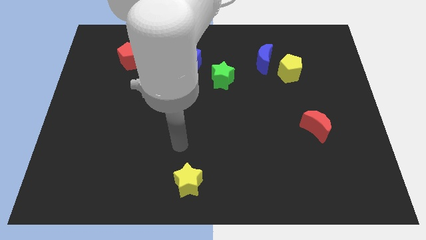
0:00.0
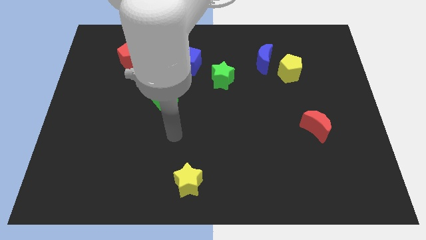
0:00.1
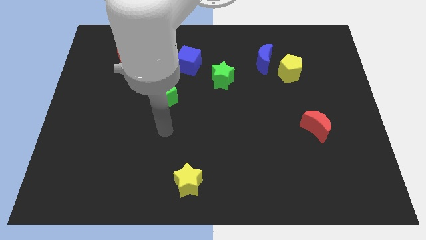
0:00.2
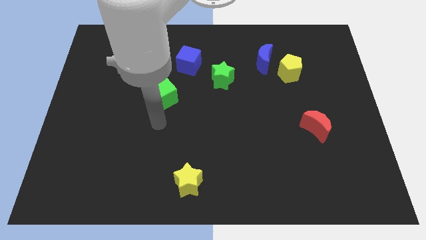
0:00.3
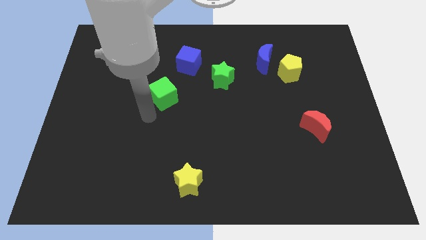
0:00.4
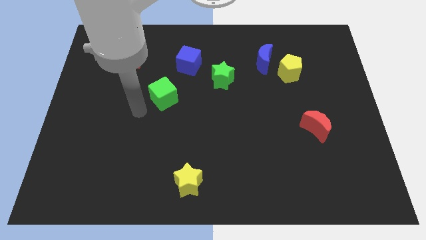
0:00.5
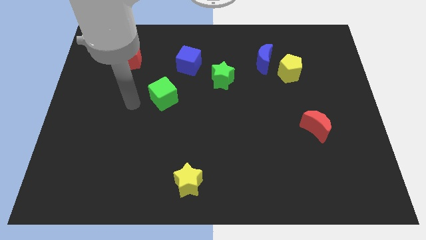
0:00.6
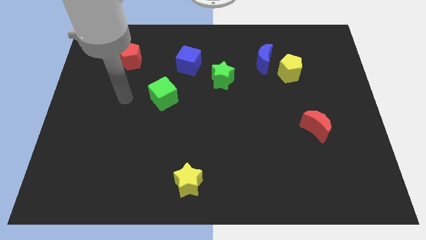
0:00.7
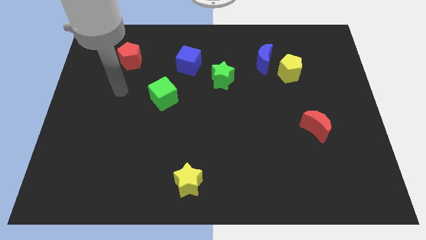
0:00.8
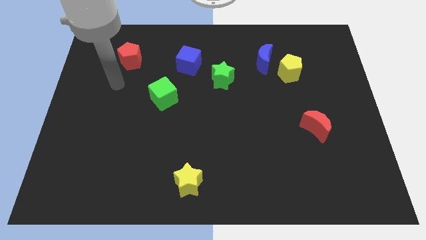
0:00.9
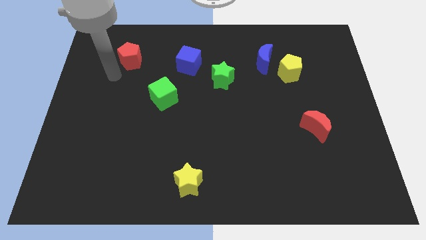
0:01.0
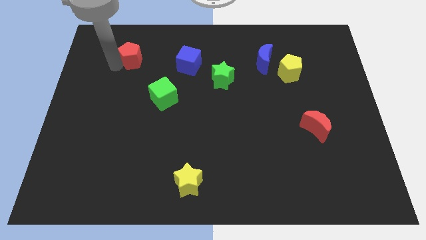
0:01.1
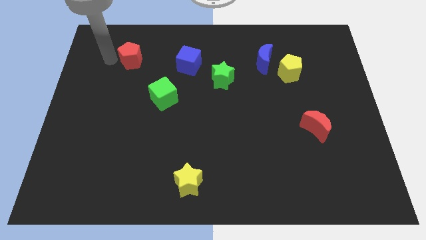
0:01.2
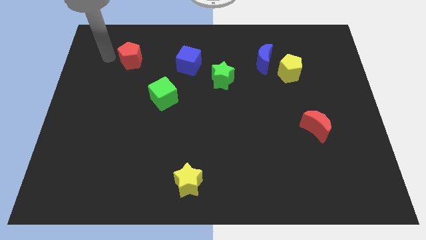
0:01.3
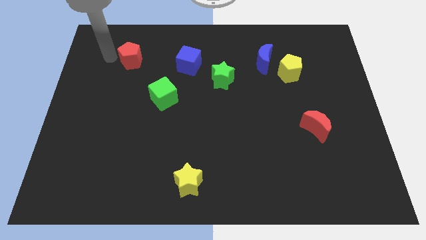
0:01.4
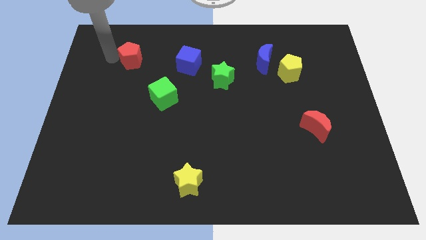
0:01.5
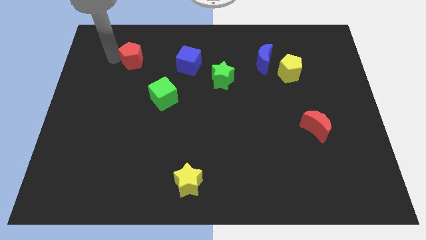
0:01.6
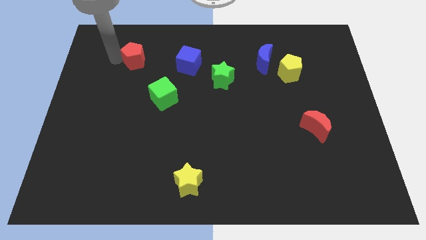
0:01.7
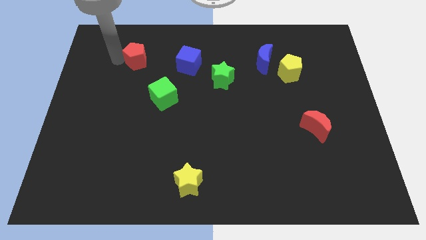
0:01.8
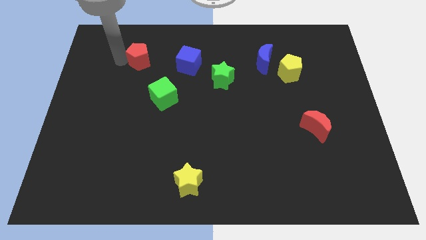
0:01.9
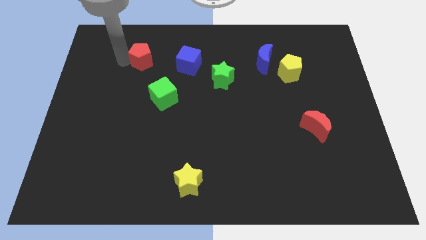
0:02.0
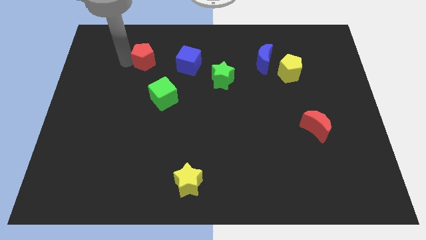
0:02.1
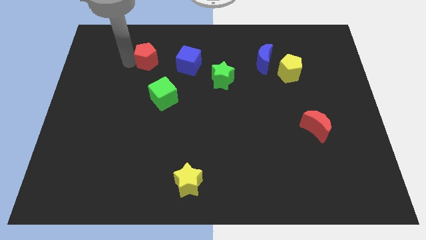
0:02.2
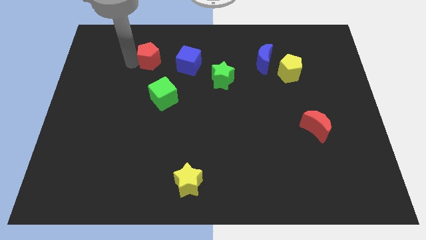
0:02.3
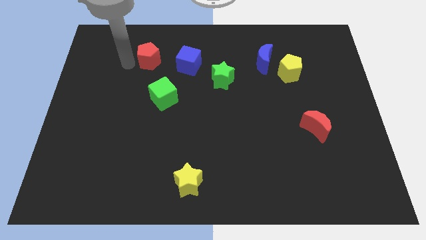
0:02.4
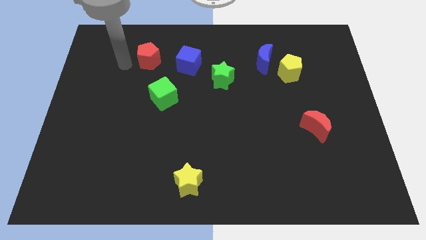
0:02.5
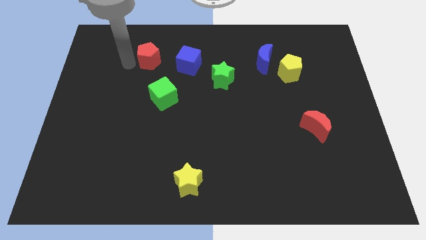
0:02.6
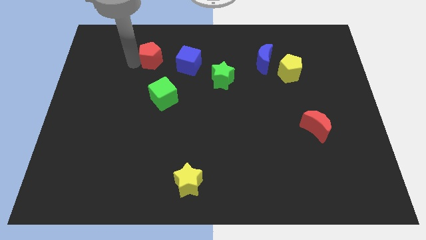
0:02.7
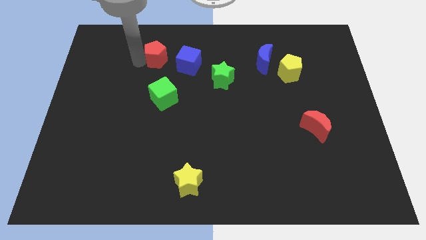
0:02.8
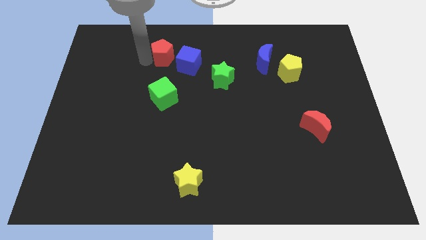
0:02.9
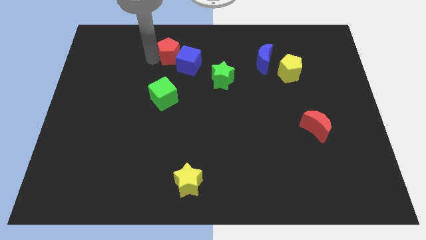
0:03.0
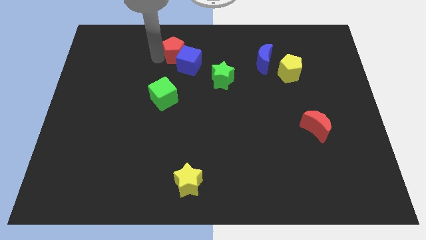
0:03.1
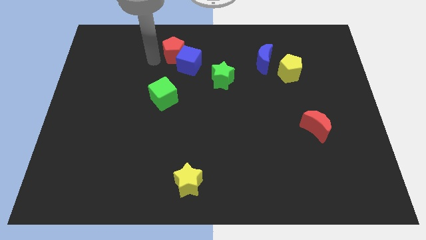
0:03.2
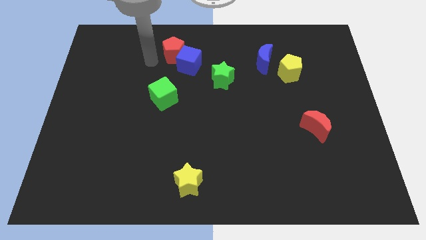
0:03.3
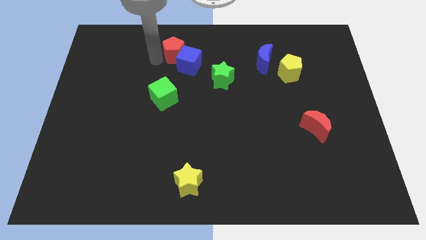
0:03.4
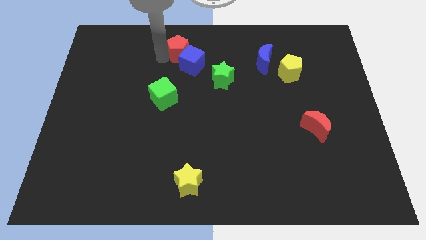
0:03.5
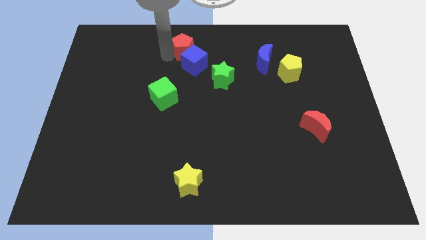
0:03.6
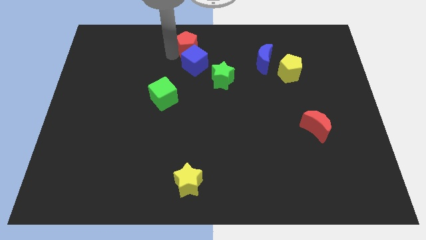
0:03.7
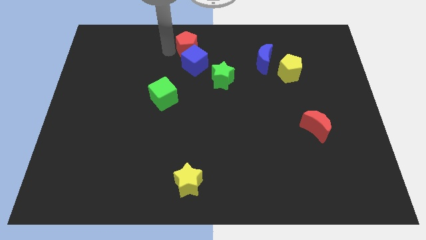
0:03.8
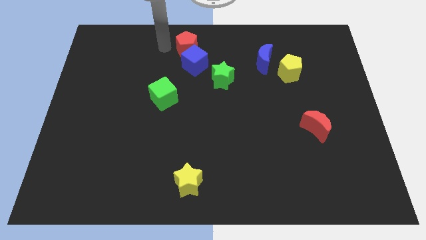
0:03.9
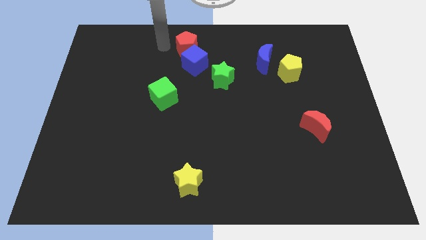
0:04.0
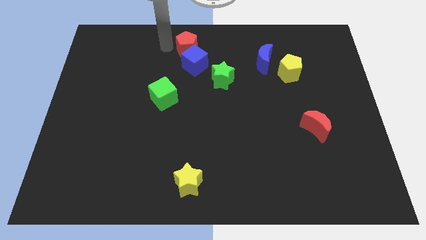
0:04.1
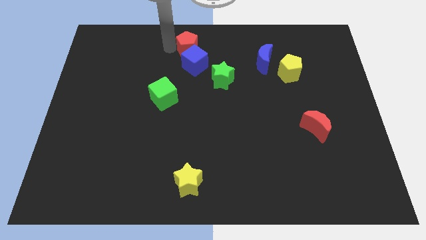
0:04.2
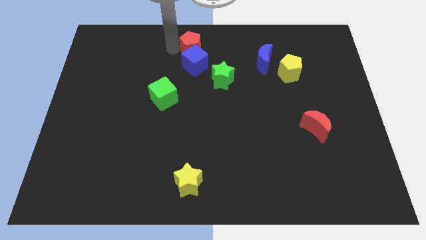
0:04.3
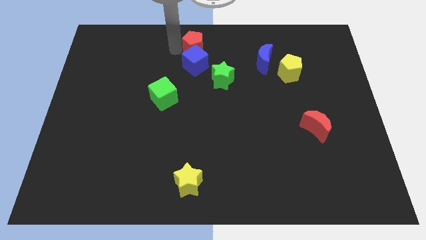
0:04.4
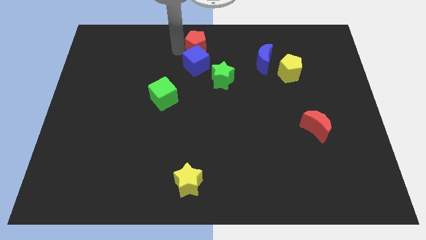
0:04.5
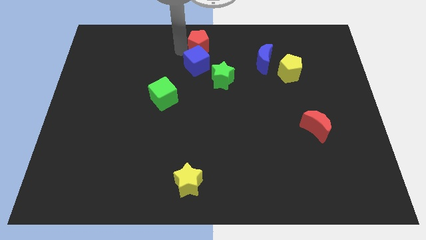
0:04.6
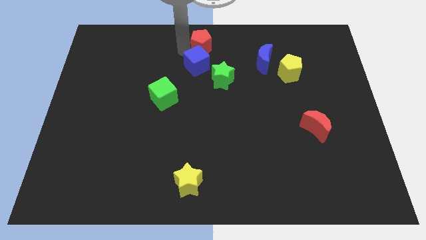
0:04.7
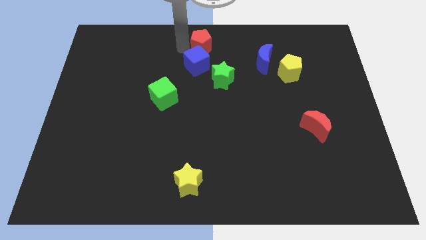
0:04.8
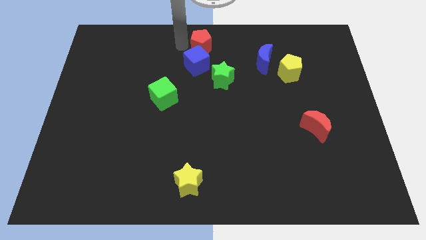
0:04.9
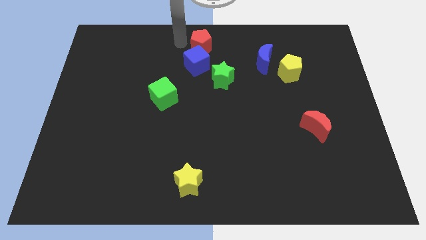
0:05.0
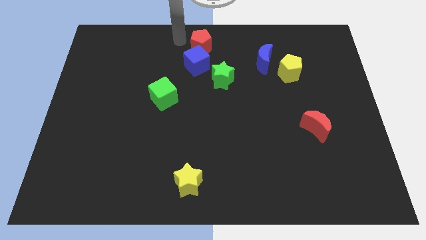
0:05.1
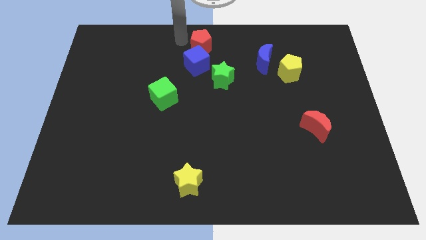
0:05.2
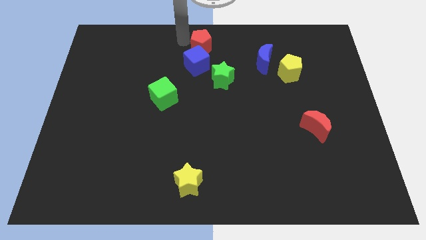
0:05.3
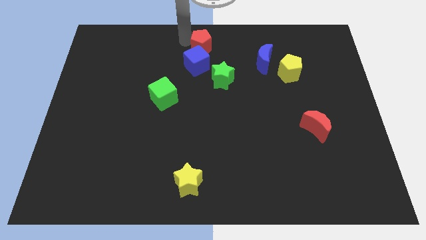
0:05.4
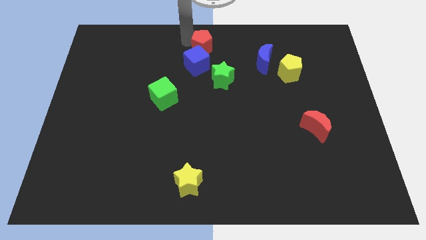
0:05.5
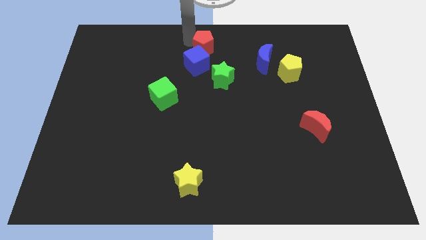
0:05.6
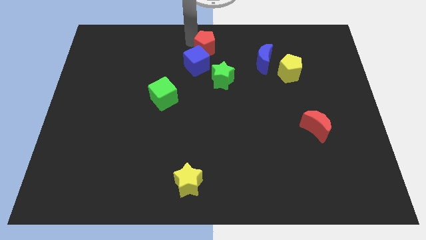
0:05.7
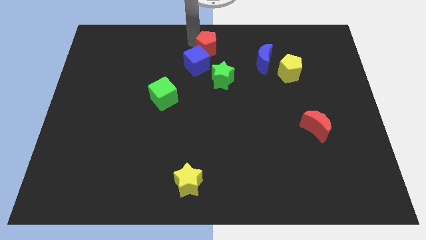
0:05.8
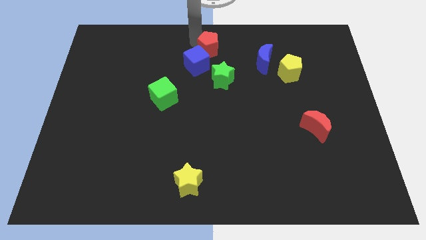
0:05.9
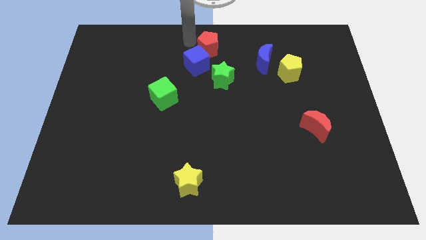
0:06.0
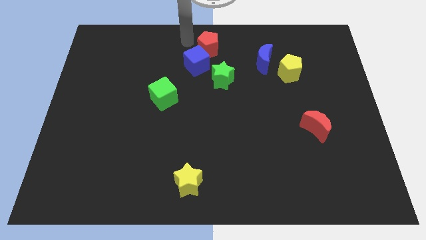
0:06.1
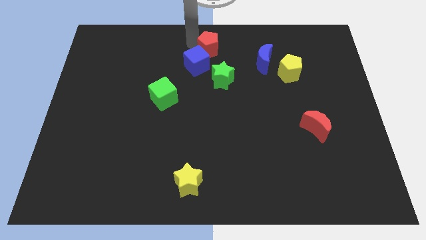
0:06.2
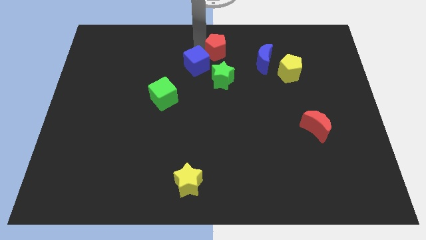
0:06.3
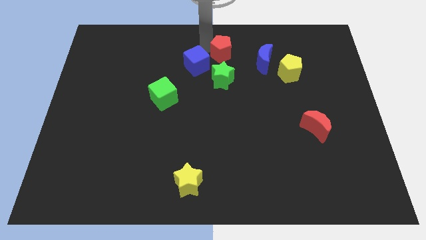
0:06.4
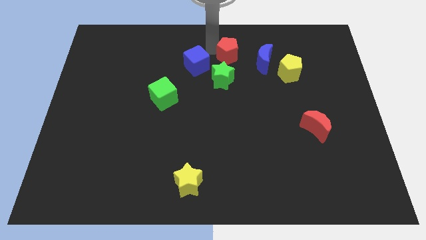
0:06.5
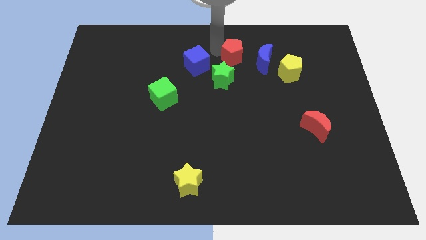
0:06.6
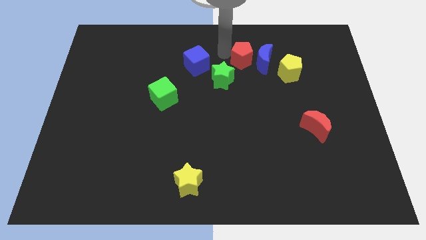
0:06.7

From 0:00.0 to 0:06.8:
slide the red pentagon to the blue moon

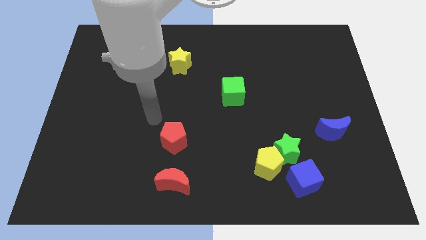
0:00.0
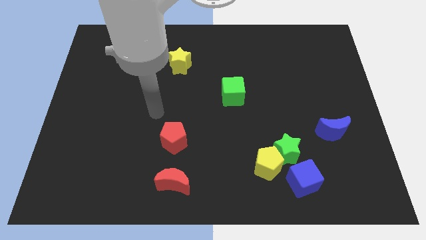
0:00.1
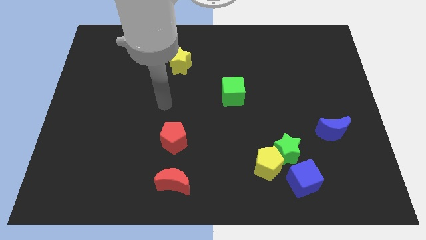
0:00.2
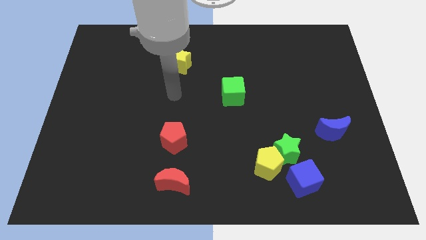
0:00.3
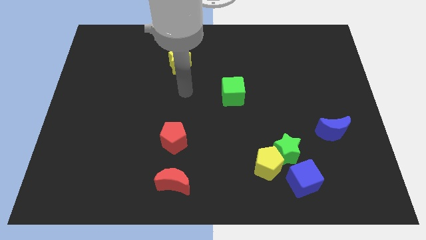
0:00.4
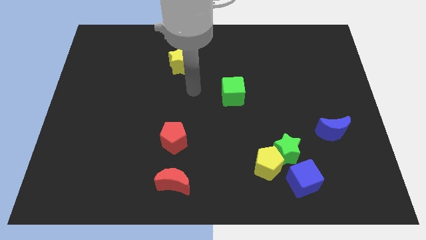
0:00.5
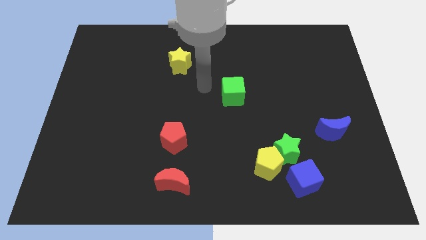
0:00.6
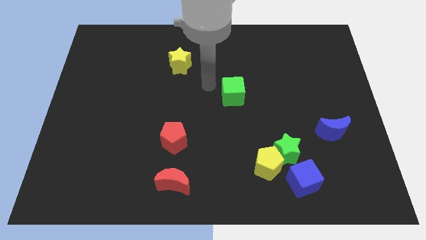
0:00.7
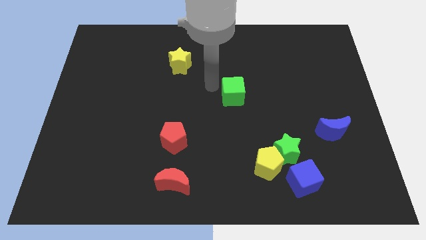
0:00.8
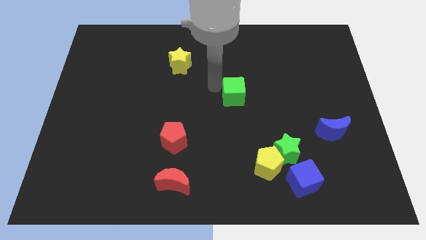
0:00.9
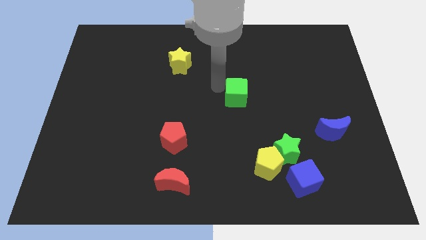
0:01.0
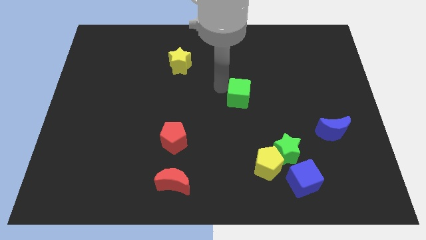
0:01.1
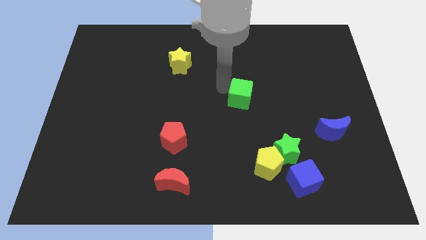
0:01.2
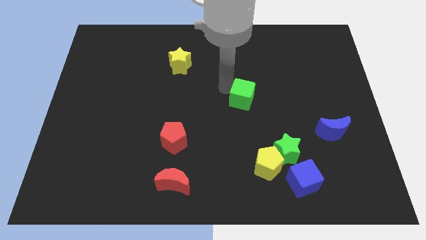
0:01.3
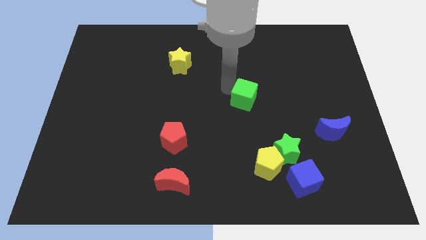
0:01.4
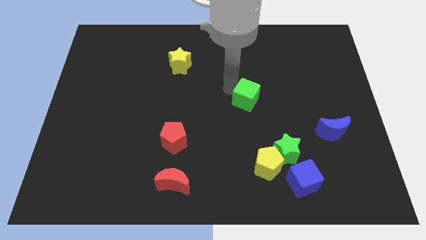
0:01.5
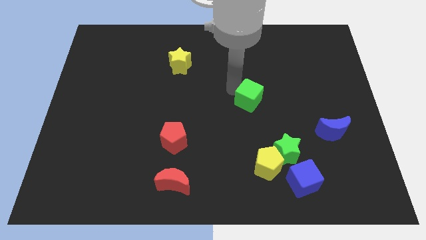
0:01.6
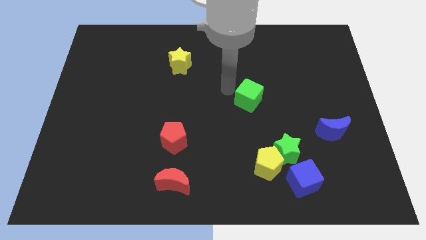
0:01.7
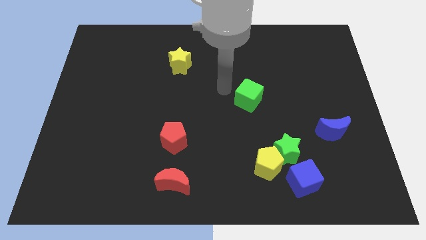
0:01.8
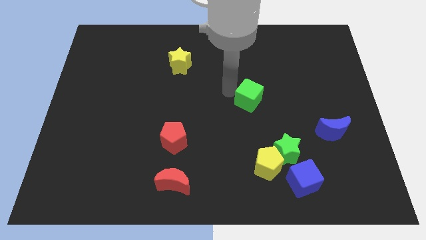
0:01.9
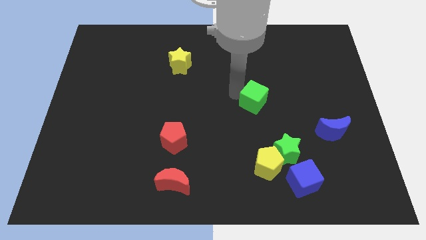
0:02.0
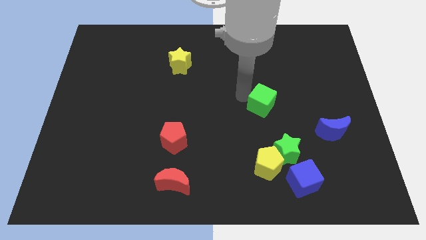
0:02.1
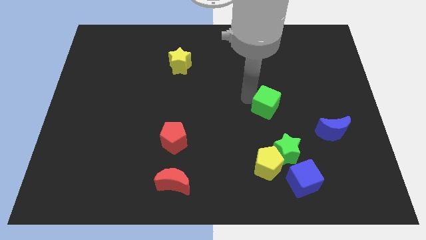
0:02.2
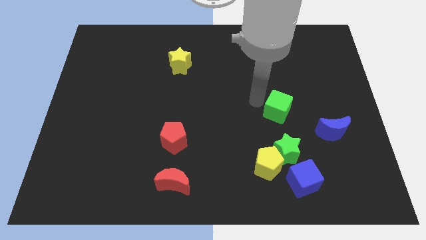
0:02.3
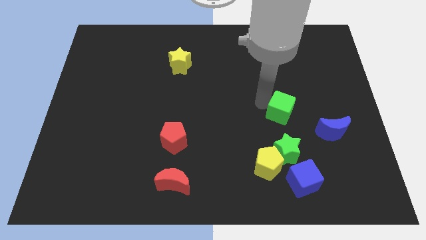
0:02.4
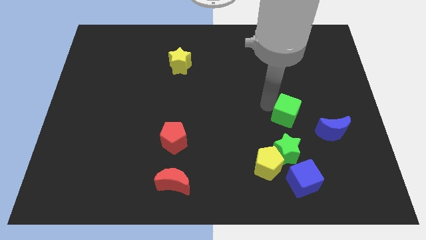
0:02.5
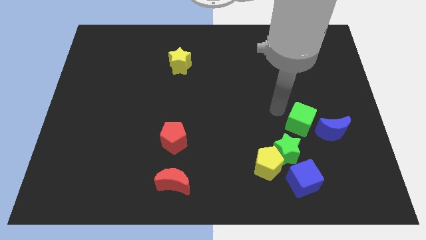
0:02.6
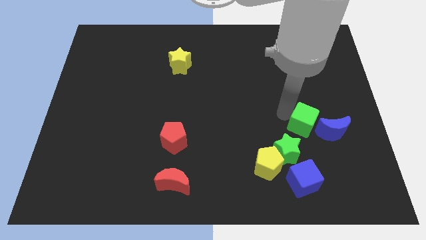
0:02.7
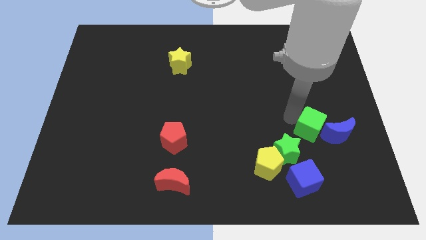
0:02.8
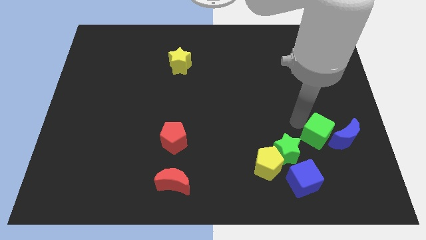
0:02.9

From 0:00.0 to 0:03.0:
slide the green cube to the blue moon
